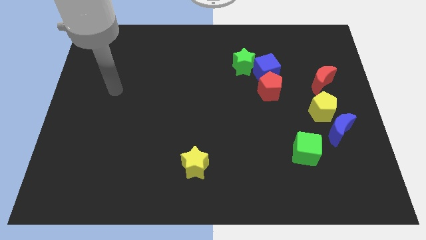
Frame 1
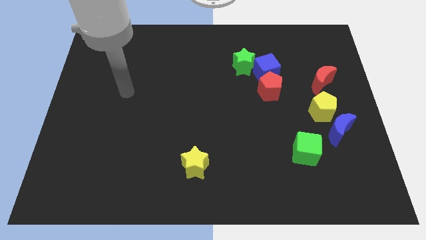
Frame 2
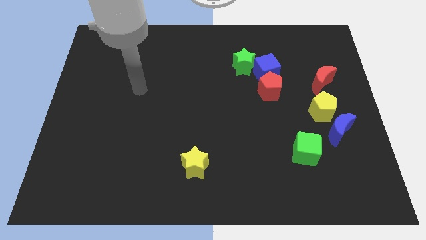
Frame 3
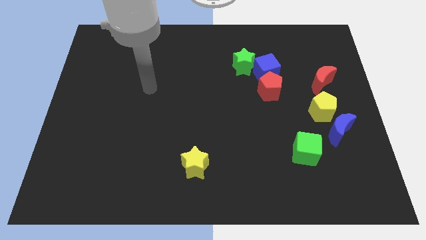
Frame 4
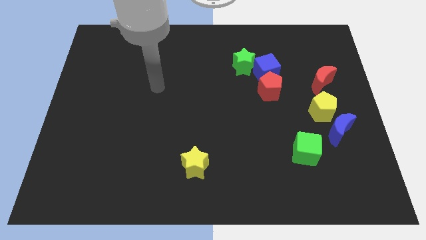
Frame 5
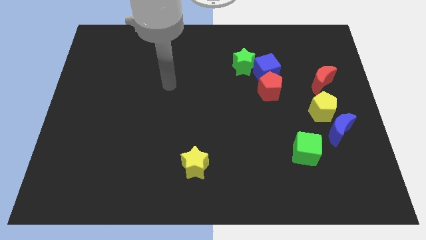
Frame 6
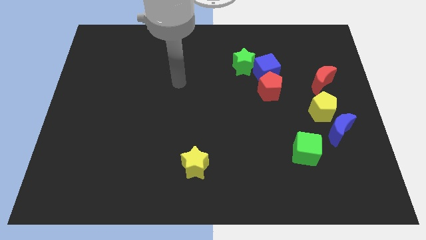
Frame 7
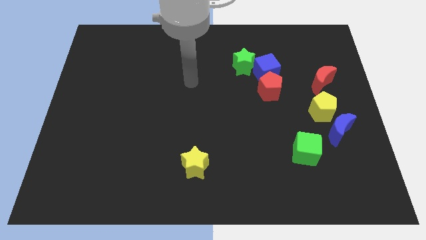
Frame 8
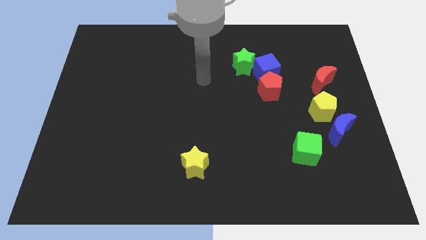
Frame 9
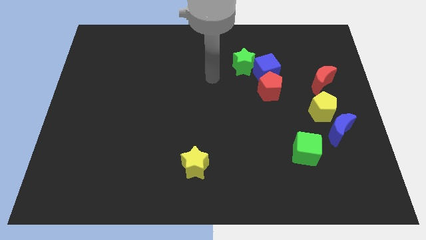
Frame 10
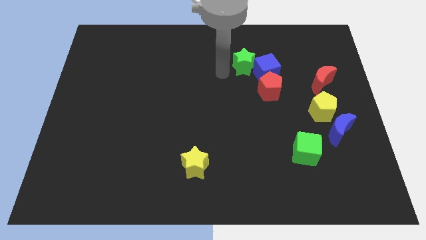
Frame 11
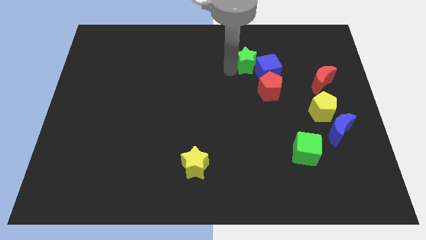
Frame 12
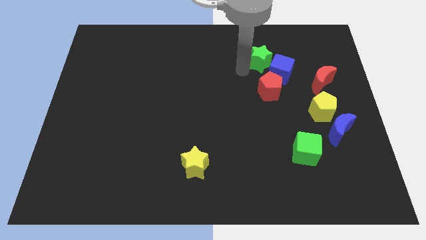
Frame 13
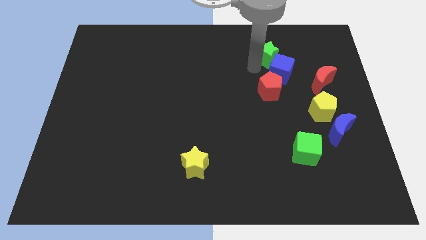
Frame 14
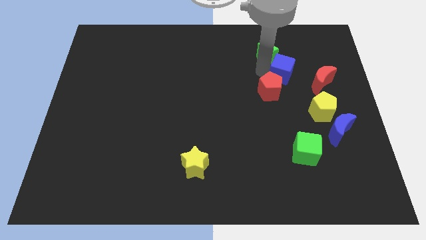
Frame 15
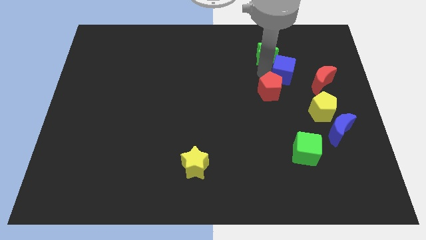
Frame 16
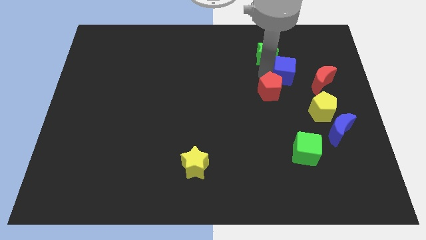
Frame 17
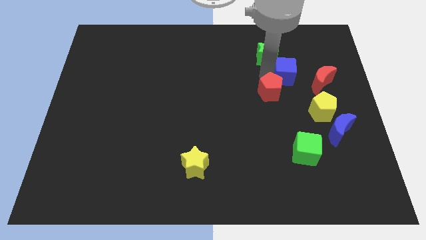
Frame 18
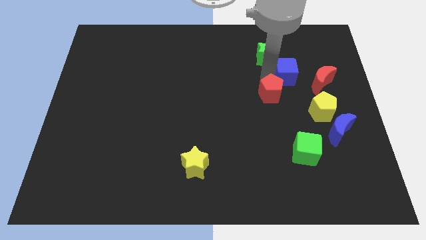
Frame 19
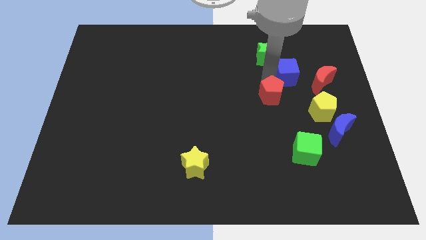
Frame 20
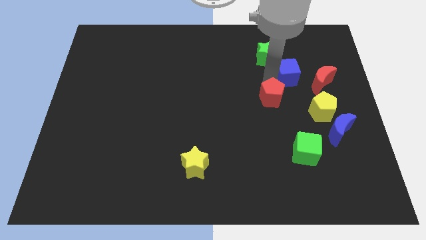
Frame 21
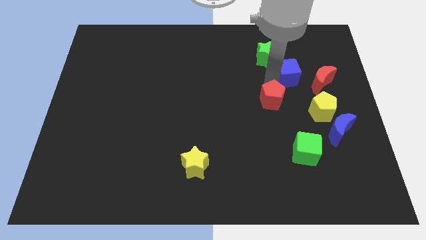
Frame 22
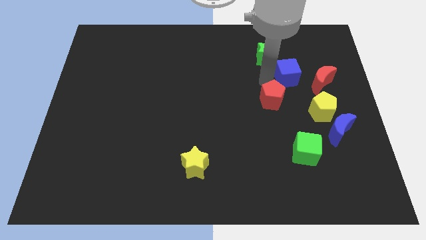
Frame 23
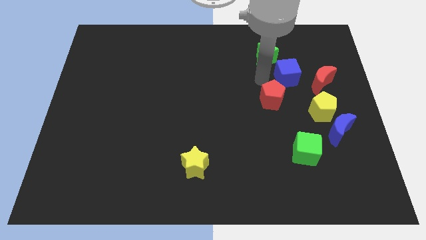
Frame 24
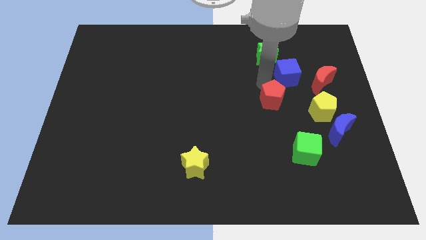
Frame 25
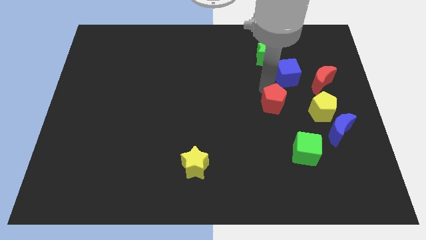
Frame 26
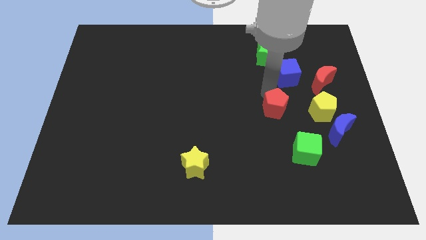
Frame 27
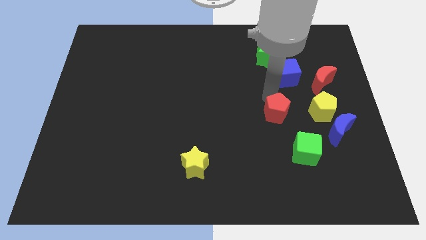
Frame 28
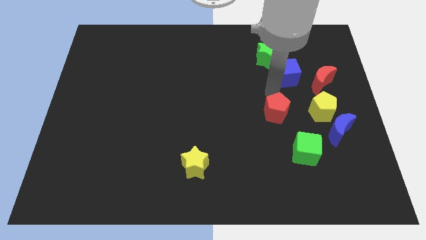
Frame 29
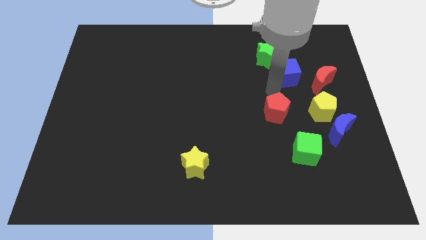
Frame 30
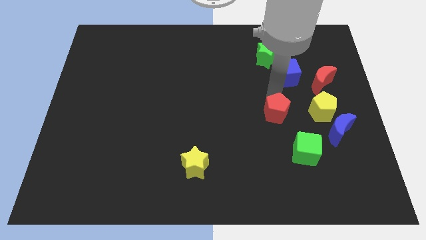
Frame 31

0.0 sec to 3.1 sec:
slightly move the red pentagon down

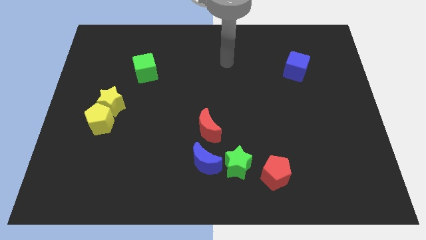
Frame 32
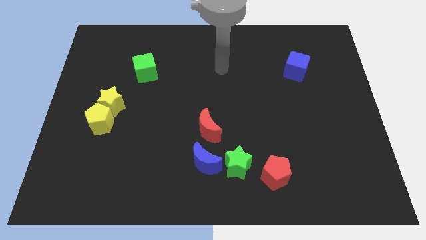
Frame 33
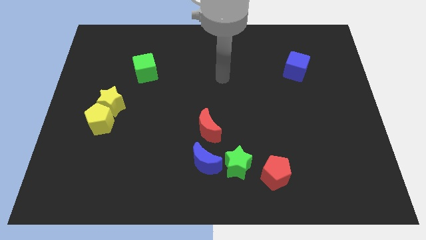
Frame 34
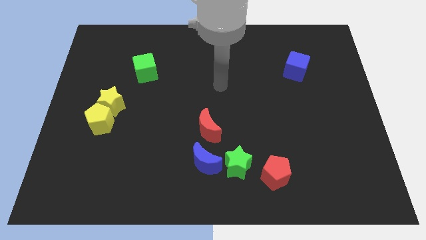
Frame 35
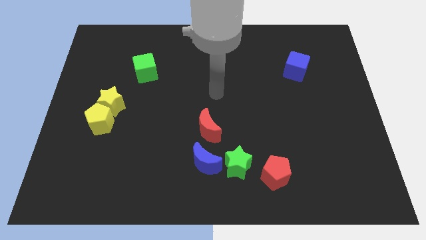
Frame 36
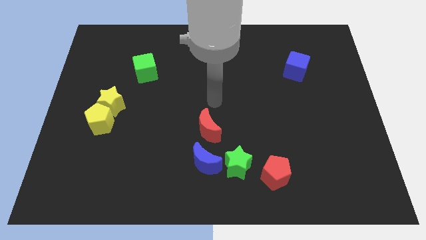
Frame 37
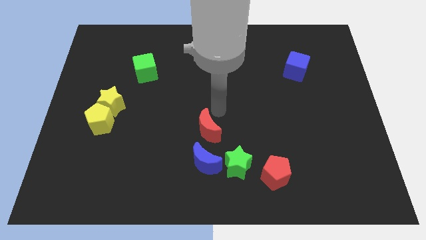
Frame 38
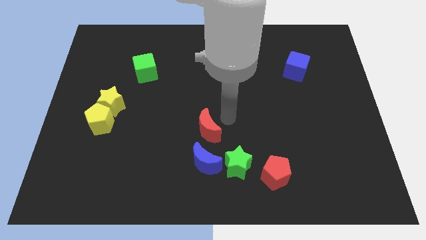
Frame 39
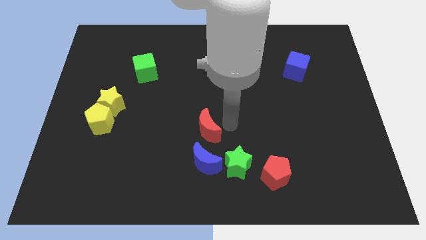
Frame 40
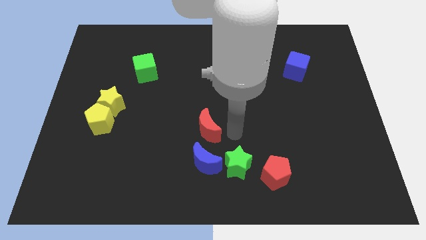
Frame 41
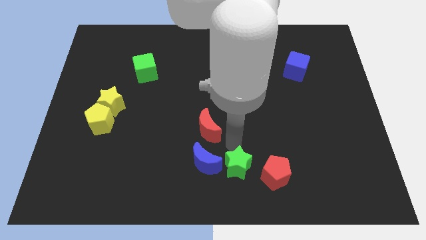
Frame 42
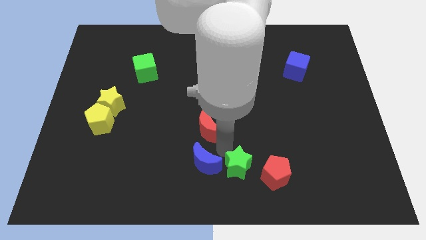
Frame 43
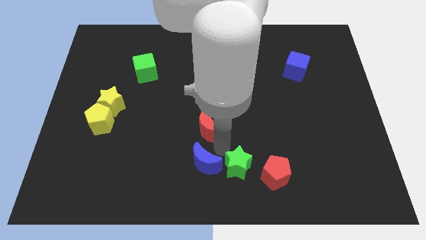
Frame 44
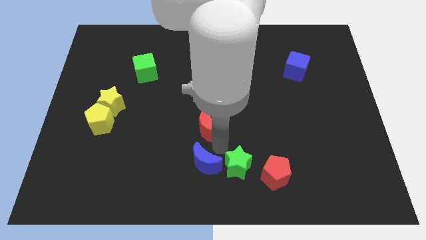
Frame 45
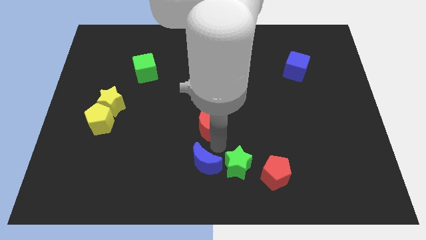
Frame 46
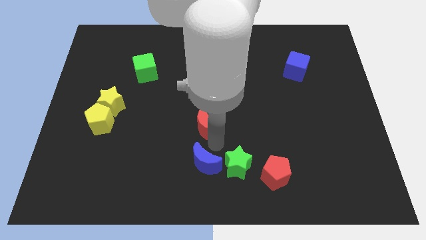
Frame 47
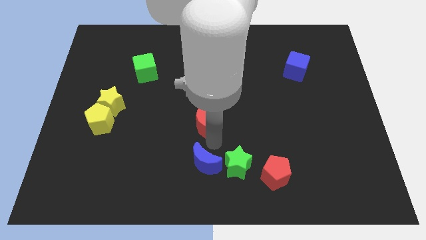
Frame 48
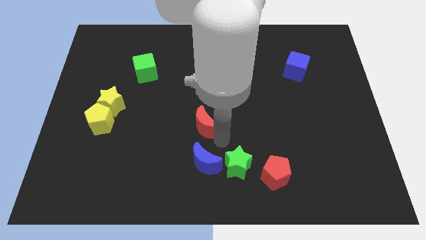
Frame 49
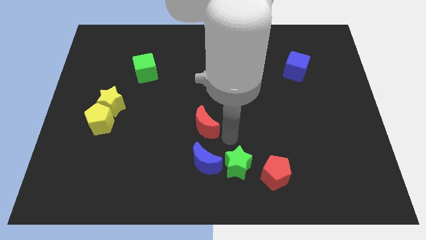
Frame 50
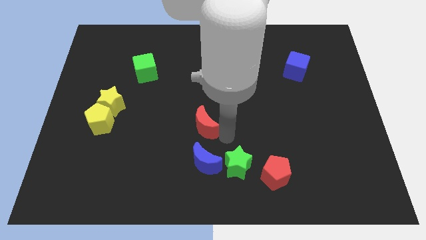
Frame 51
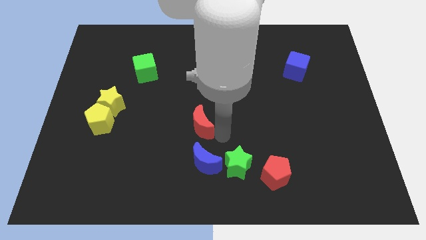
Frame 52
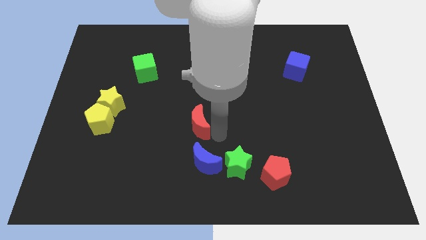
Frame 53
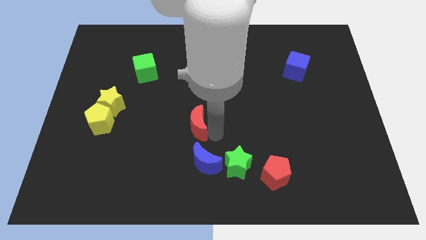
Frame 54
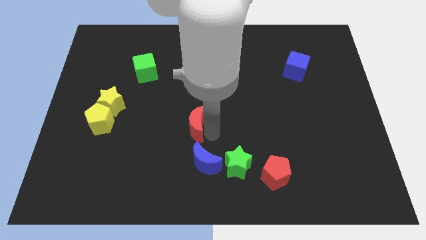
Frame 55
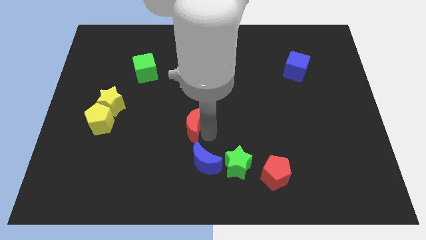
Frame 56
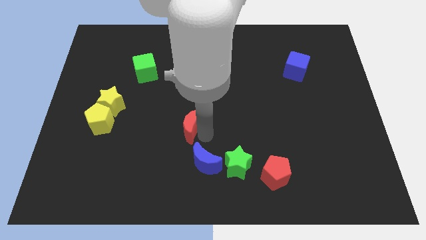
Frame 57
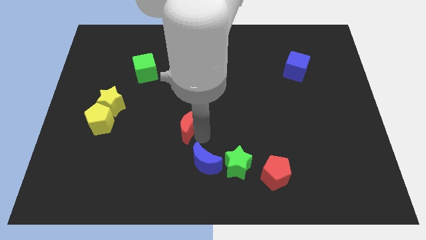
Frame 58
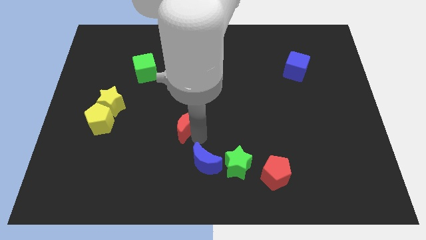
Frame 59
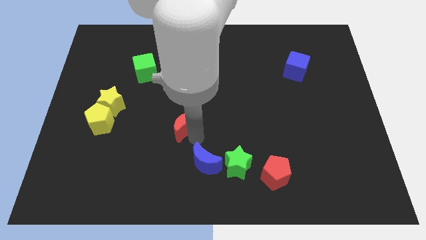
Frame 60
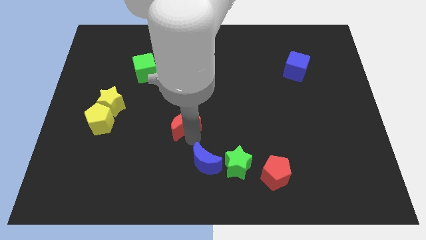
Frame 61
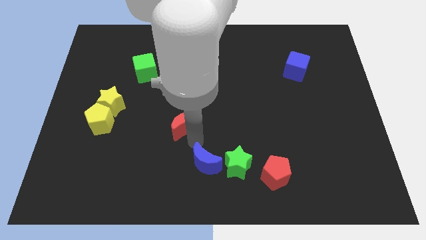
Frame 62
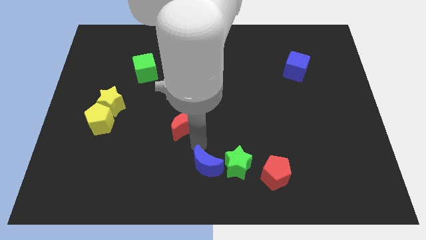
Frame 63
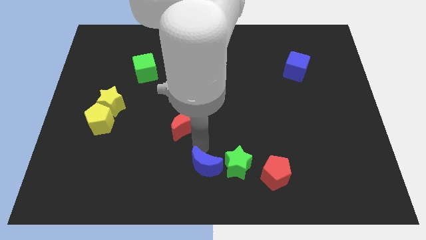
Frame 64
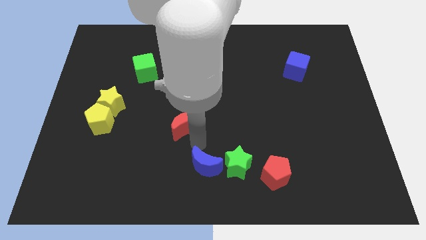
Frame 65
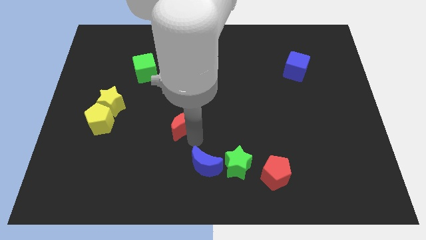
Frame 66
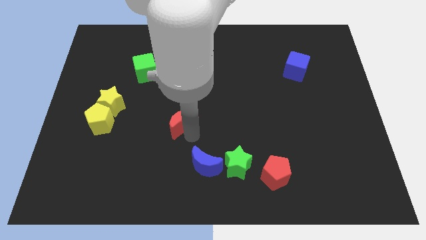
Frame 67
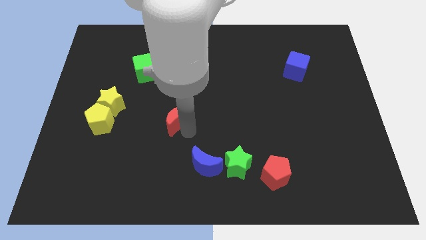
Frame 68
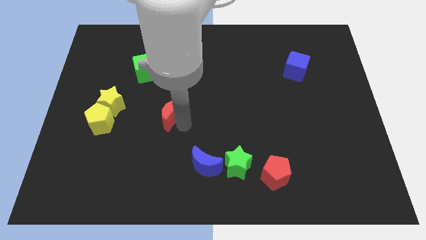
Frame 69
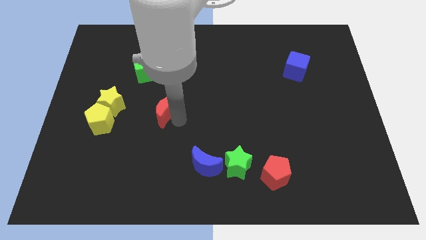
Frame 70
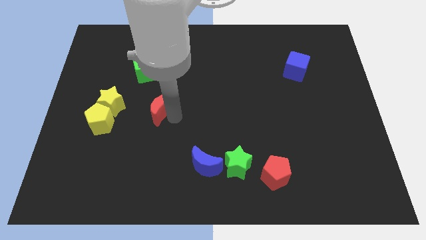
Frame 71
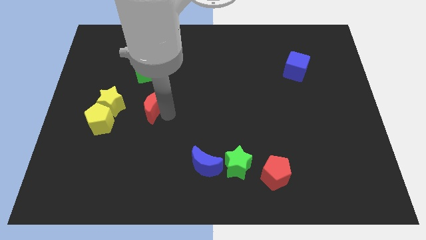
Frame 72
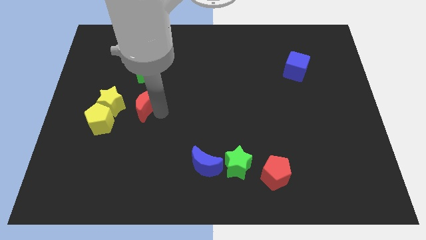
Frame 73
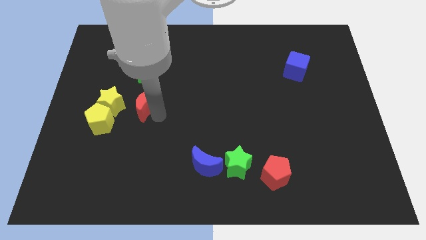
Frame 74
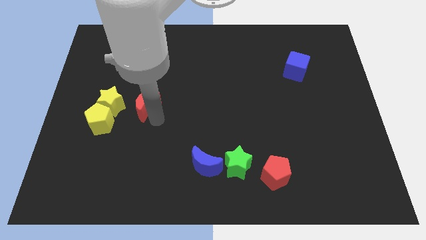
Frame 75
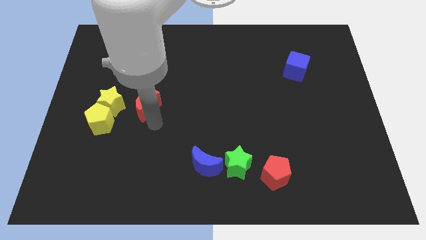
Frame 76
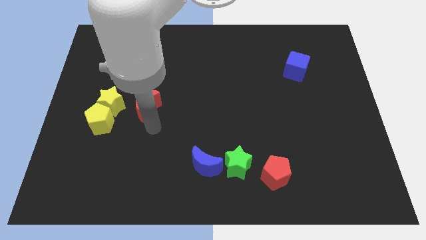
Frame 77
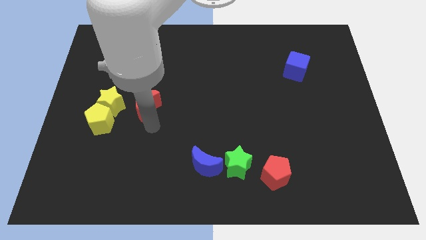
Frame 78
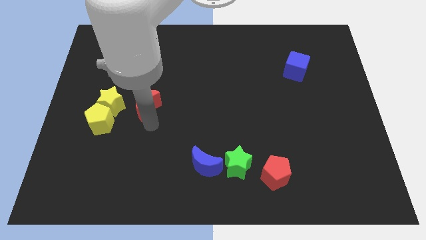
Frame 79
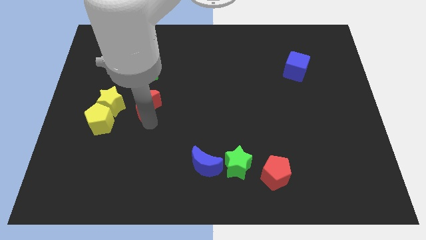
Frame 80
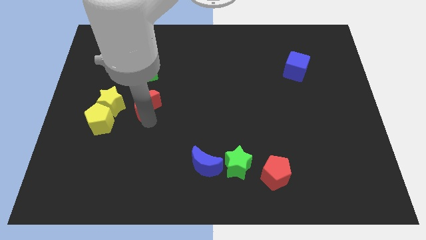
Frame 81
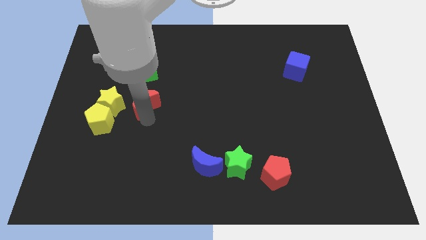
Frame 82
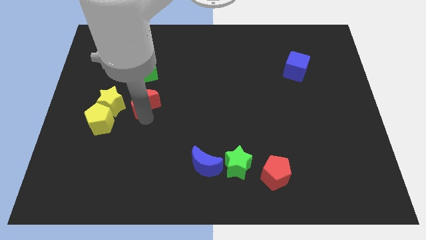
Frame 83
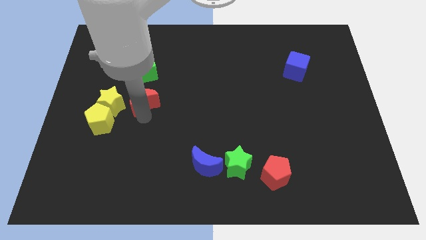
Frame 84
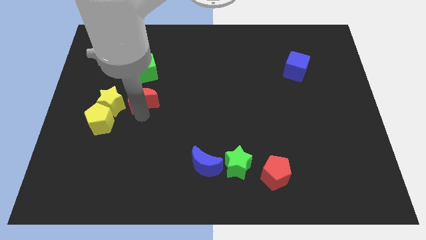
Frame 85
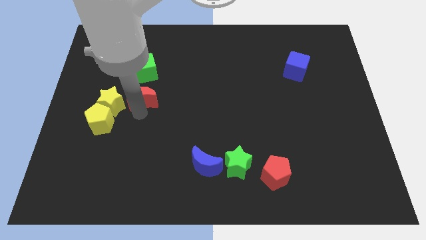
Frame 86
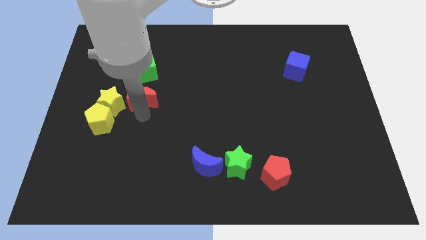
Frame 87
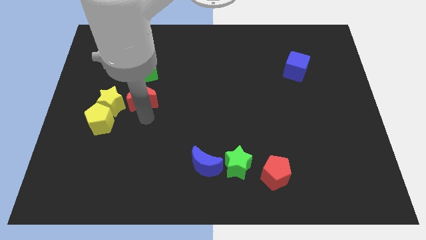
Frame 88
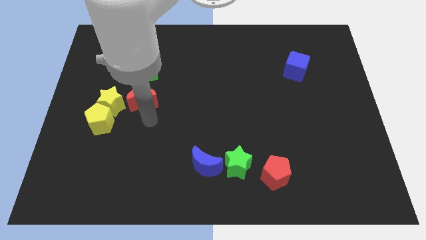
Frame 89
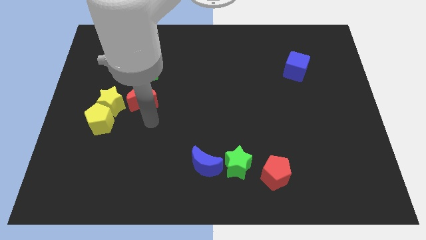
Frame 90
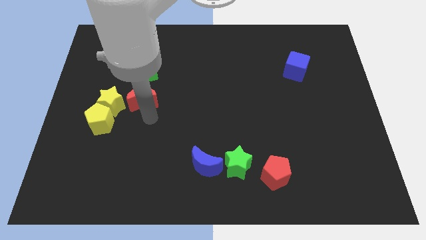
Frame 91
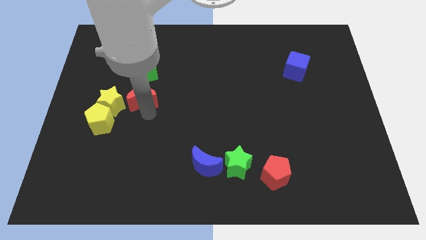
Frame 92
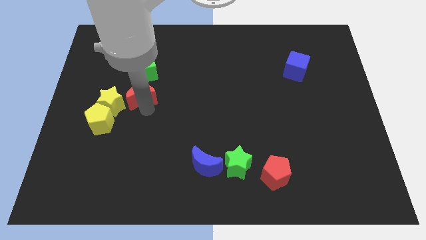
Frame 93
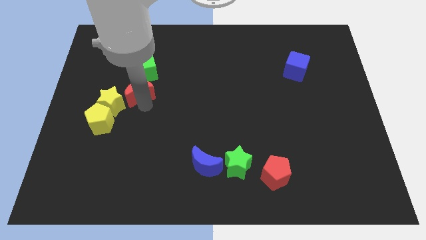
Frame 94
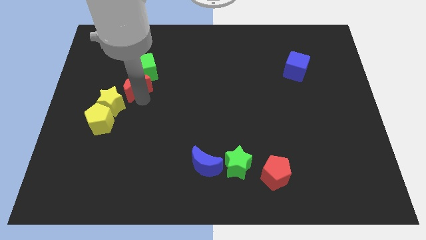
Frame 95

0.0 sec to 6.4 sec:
slide the red moon diagonally upwards and to the left
